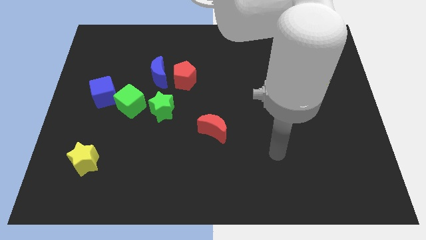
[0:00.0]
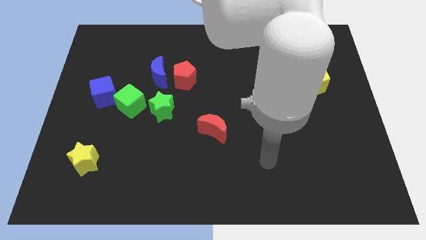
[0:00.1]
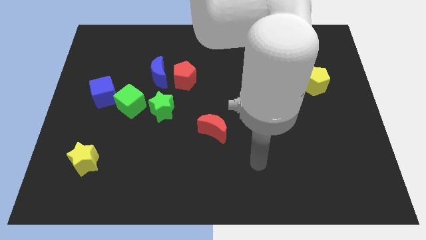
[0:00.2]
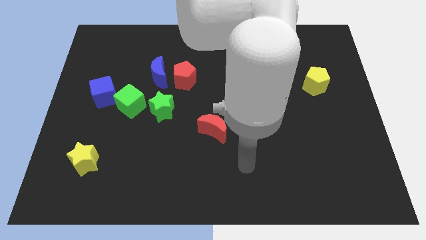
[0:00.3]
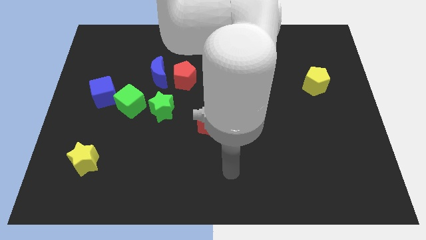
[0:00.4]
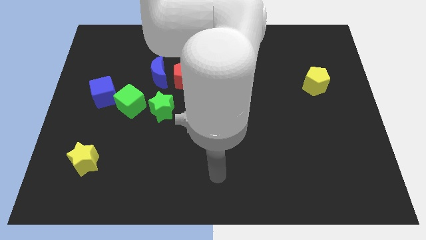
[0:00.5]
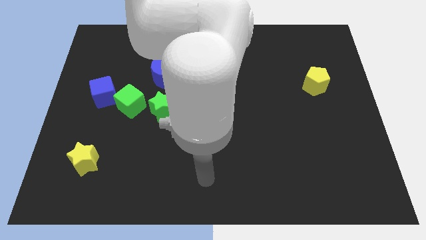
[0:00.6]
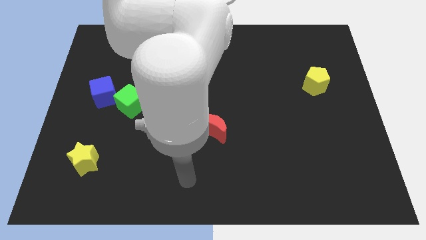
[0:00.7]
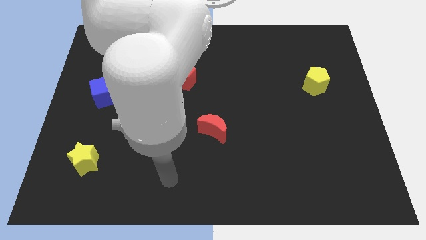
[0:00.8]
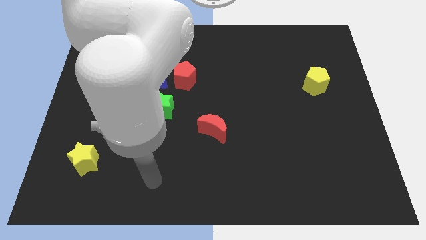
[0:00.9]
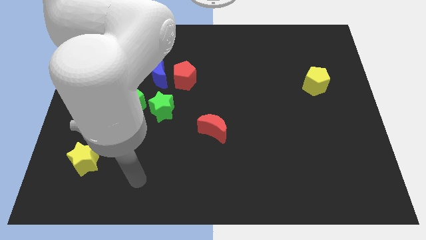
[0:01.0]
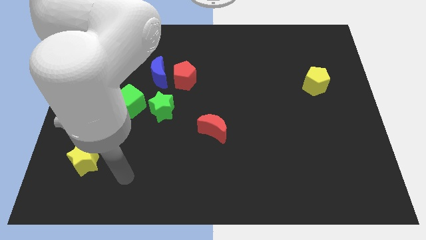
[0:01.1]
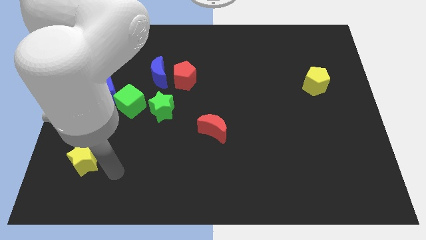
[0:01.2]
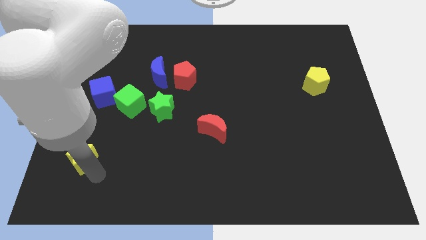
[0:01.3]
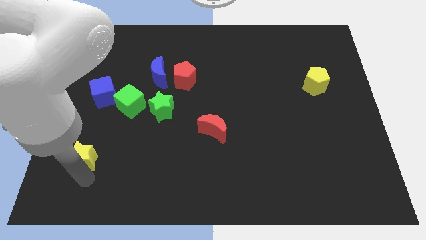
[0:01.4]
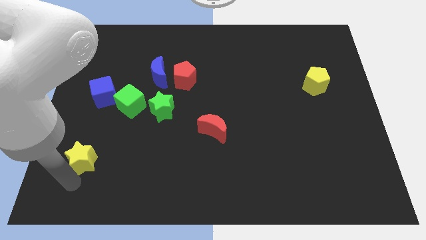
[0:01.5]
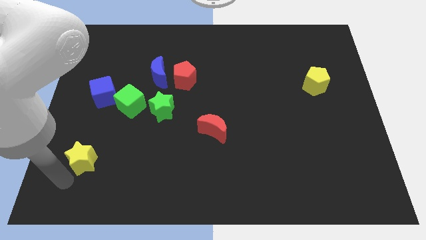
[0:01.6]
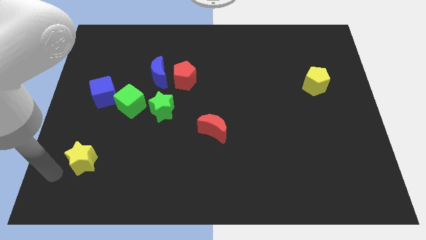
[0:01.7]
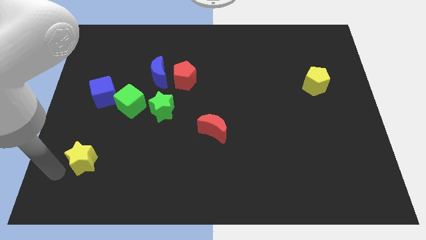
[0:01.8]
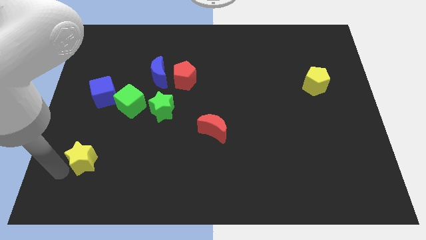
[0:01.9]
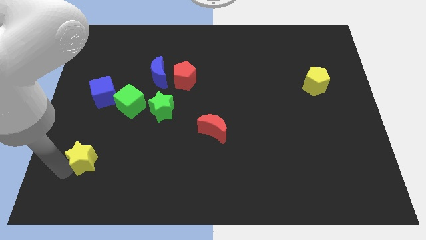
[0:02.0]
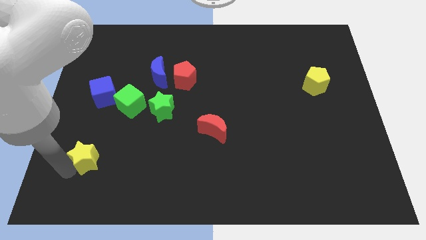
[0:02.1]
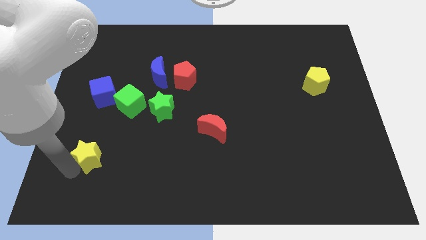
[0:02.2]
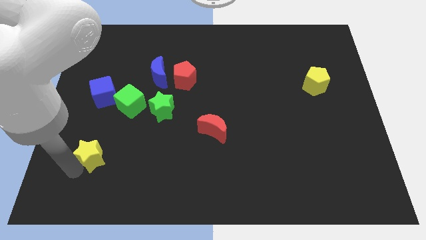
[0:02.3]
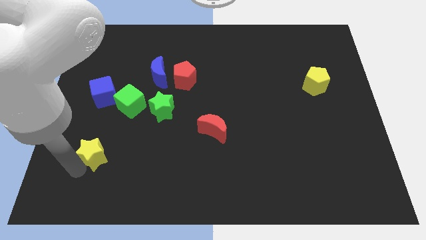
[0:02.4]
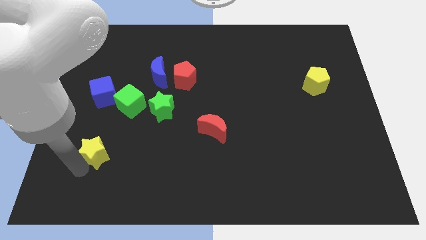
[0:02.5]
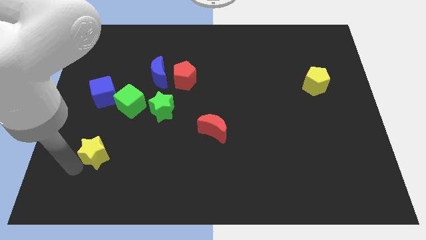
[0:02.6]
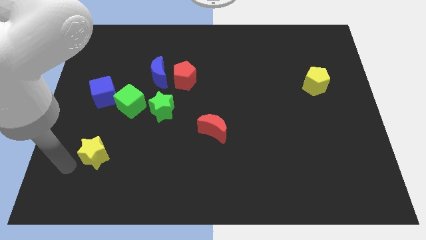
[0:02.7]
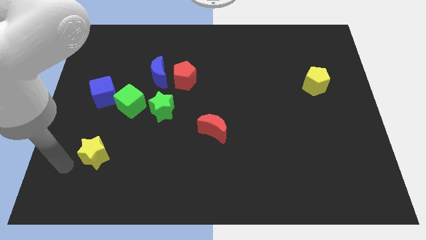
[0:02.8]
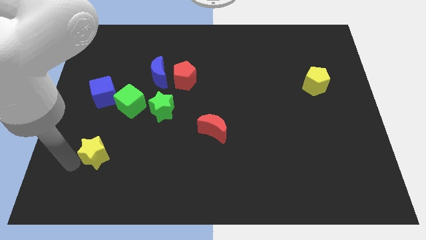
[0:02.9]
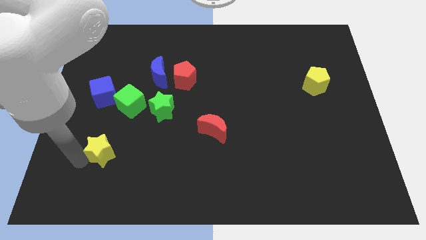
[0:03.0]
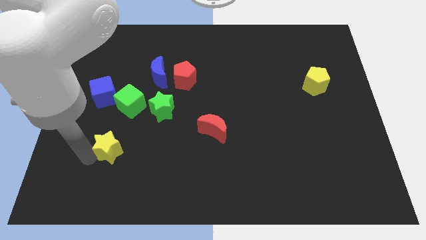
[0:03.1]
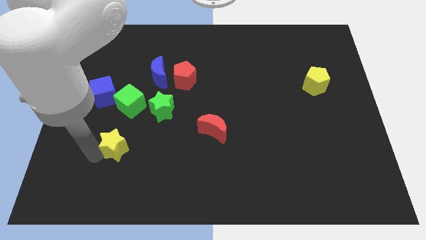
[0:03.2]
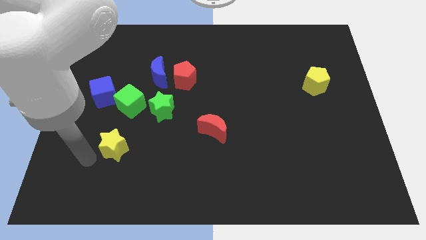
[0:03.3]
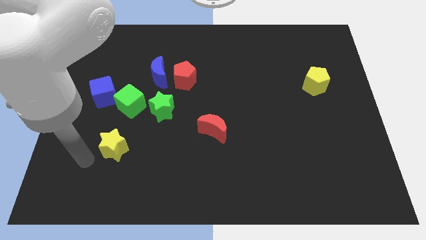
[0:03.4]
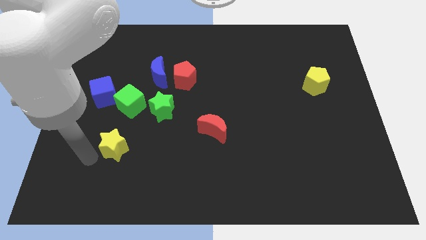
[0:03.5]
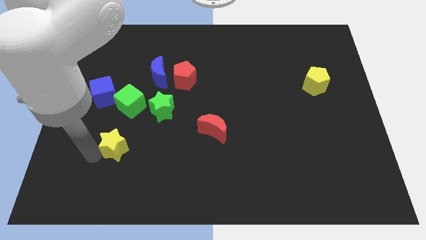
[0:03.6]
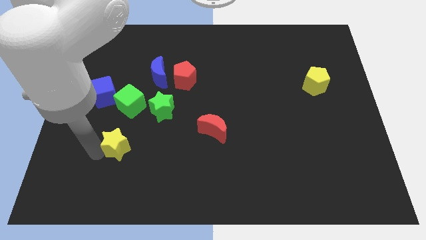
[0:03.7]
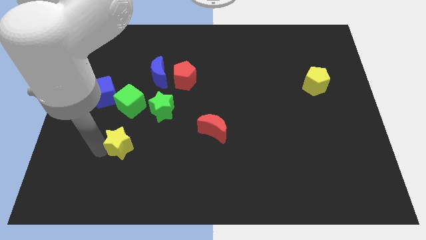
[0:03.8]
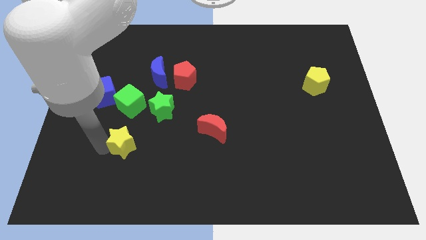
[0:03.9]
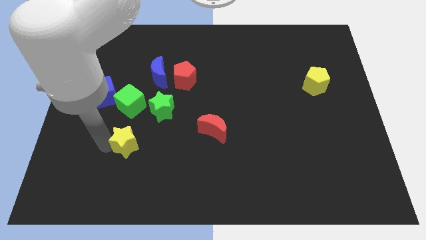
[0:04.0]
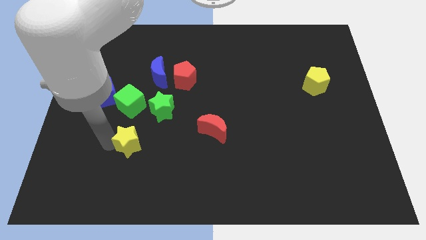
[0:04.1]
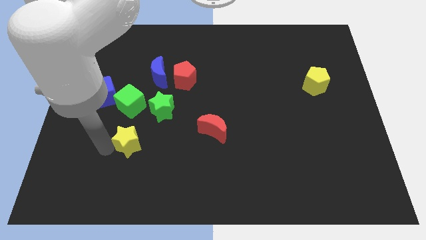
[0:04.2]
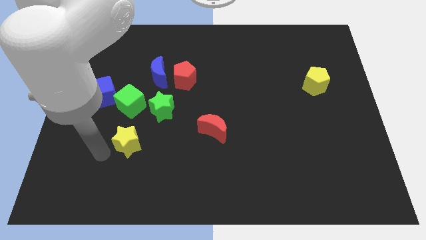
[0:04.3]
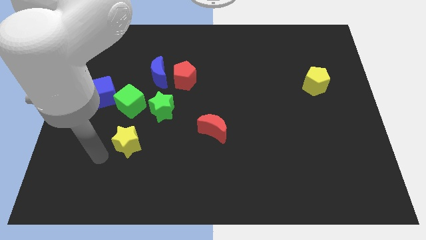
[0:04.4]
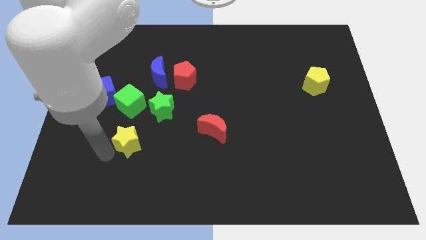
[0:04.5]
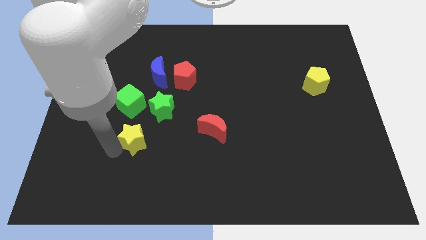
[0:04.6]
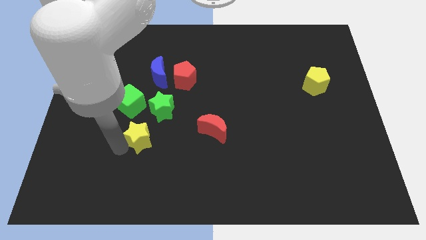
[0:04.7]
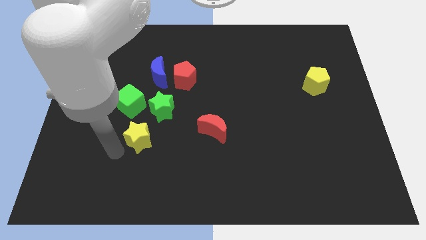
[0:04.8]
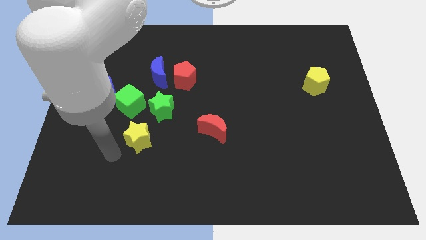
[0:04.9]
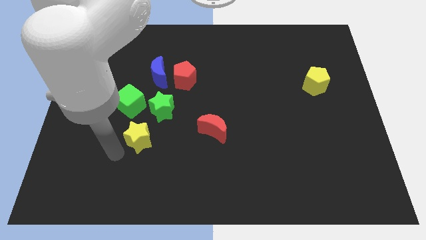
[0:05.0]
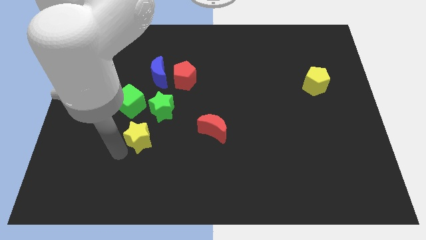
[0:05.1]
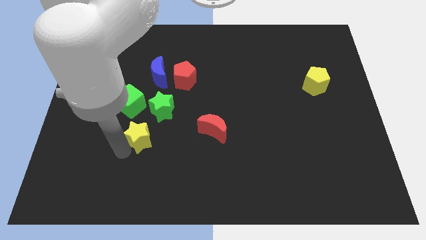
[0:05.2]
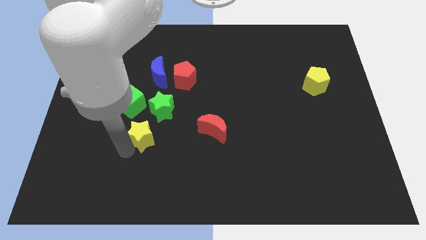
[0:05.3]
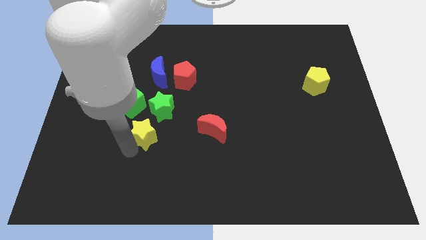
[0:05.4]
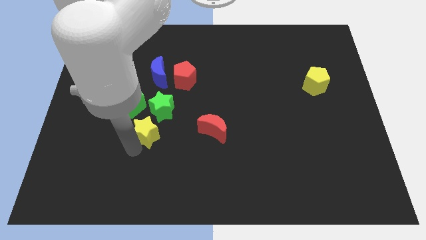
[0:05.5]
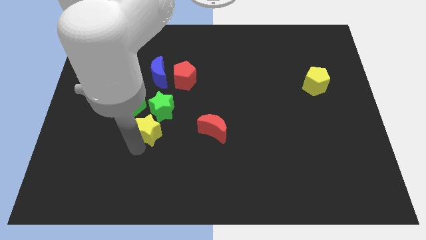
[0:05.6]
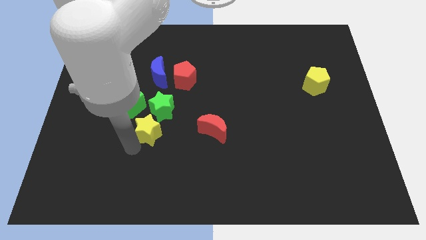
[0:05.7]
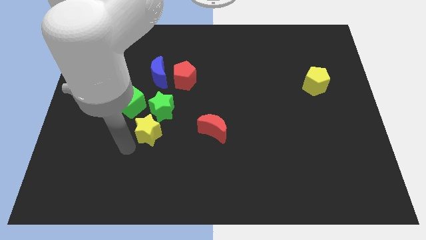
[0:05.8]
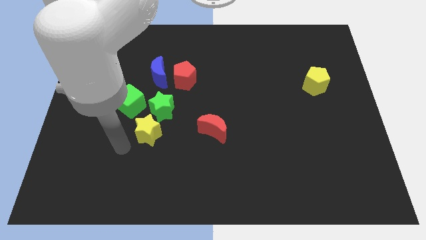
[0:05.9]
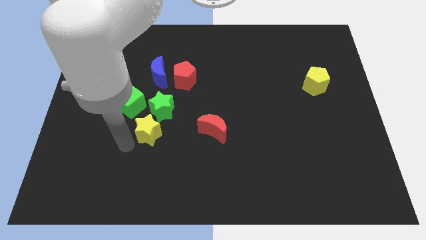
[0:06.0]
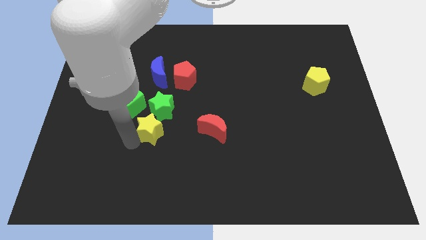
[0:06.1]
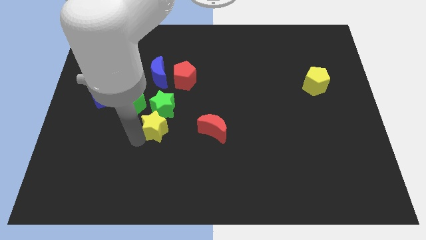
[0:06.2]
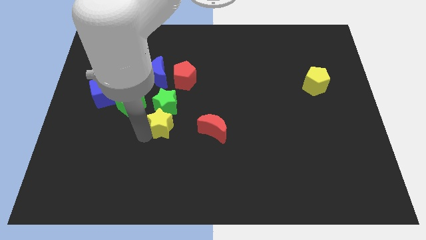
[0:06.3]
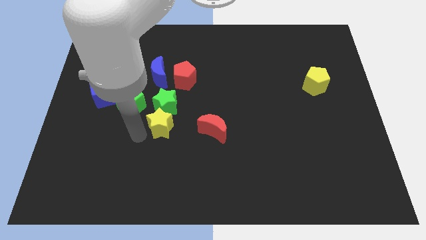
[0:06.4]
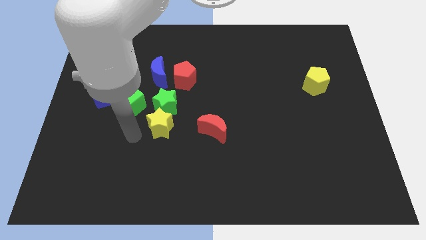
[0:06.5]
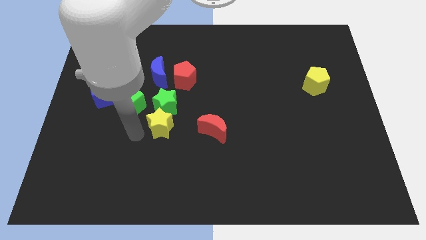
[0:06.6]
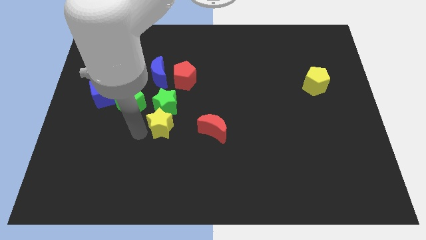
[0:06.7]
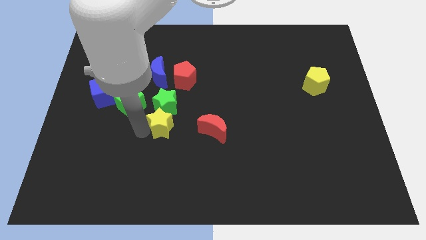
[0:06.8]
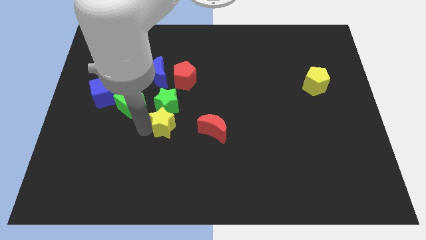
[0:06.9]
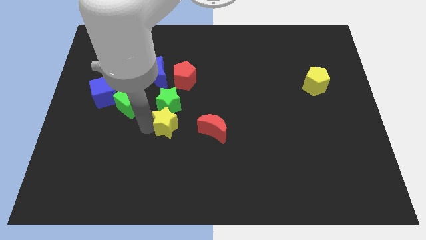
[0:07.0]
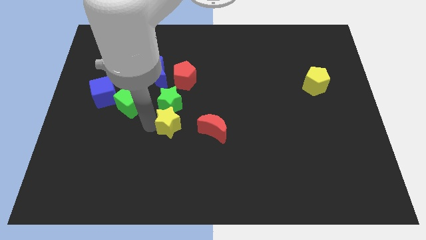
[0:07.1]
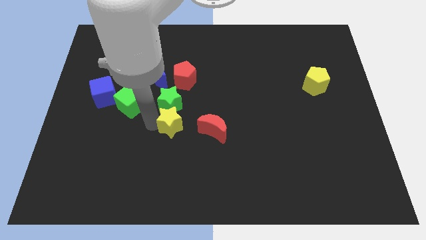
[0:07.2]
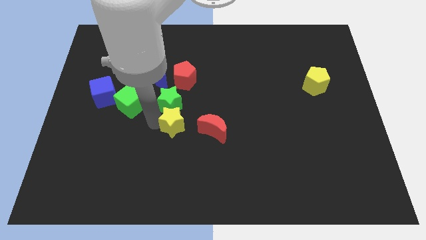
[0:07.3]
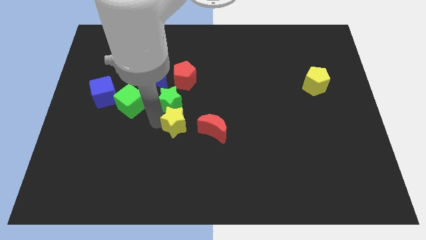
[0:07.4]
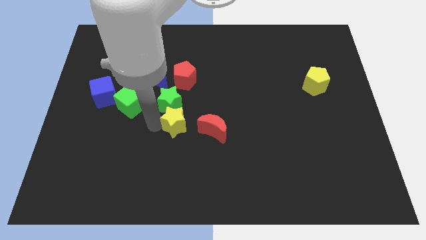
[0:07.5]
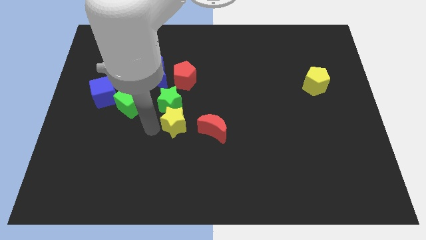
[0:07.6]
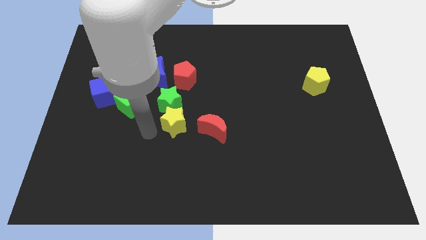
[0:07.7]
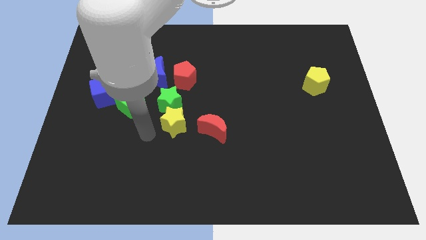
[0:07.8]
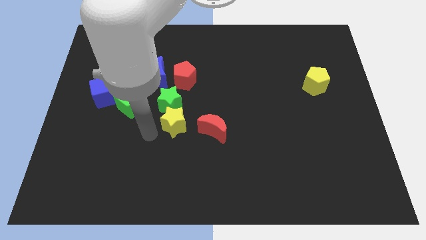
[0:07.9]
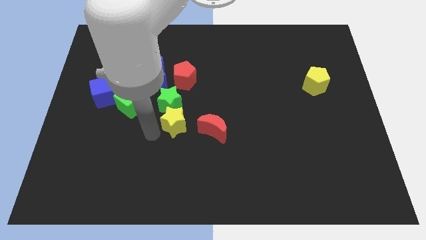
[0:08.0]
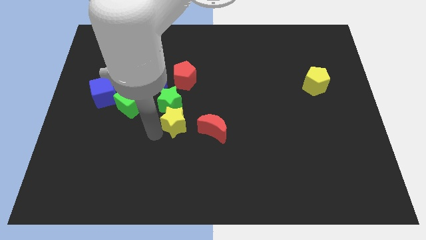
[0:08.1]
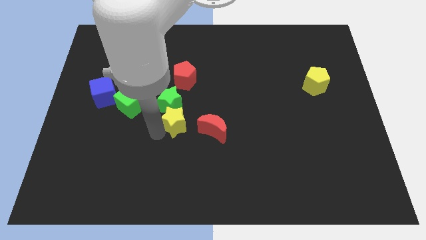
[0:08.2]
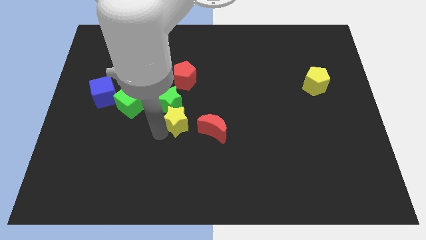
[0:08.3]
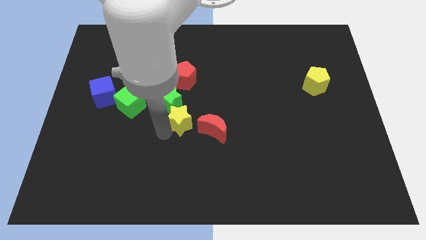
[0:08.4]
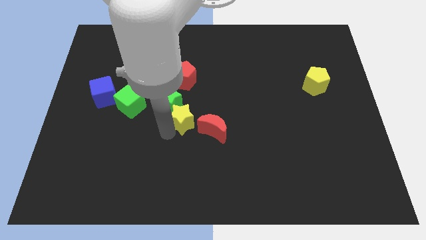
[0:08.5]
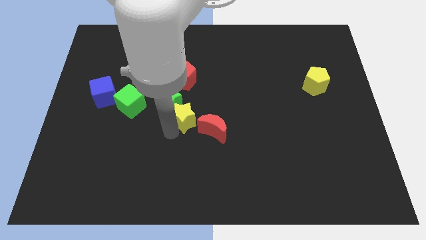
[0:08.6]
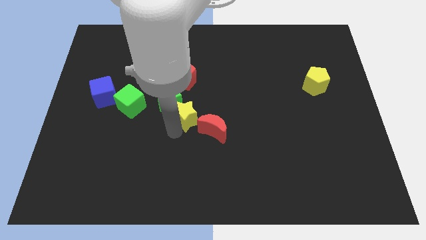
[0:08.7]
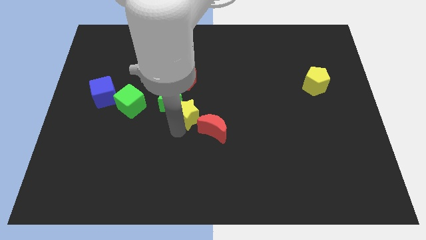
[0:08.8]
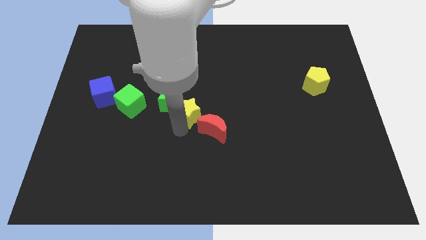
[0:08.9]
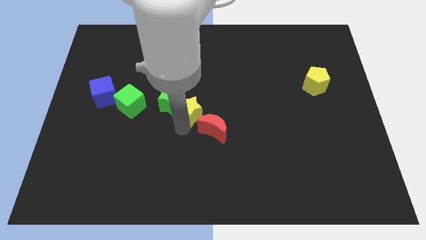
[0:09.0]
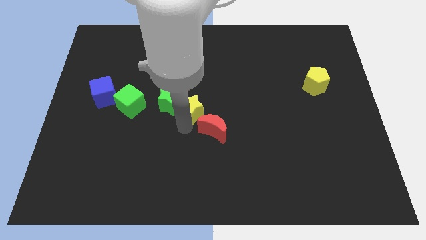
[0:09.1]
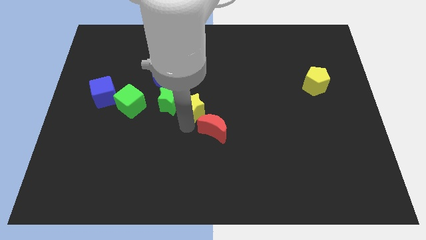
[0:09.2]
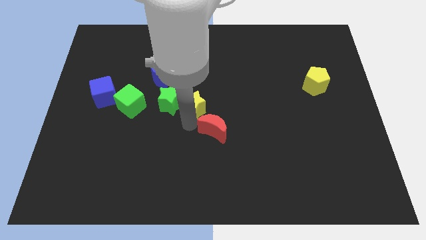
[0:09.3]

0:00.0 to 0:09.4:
put the yellow star to the top of the red moon
